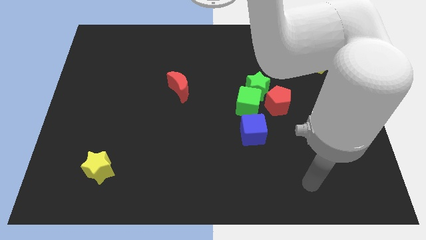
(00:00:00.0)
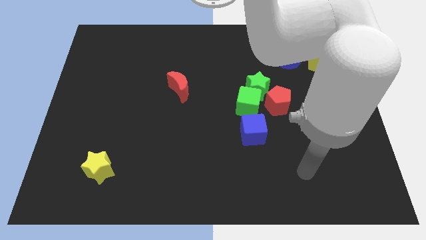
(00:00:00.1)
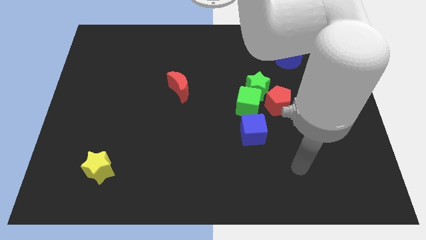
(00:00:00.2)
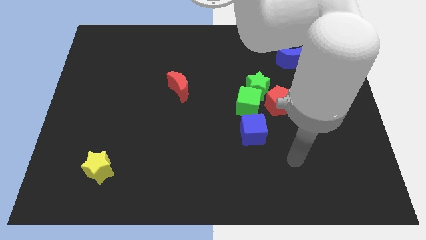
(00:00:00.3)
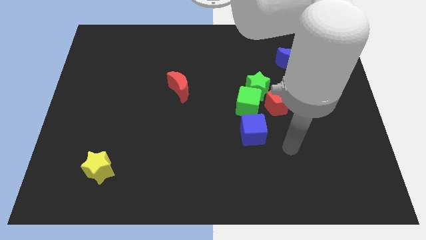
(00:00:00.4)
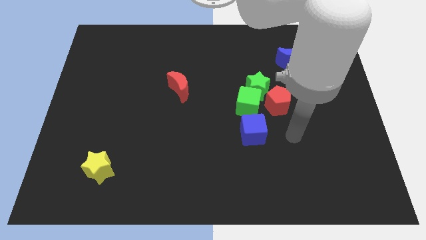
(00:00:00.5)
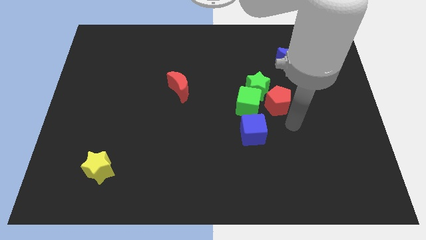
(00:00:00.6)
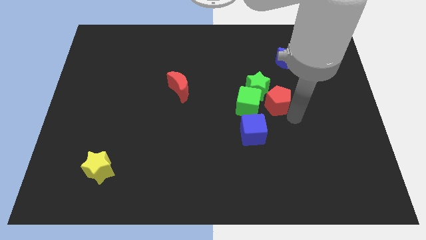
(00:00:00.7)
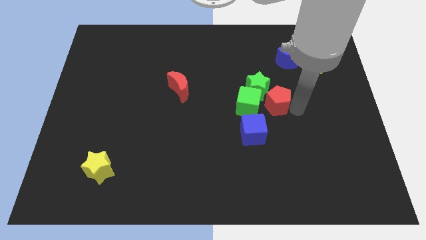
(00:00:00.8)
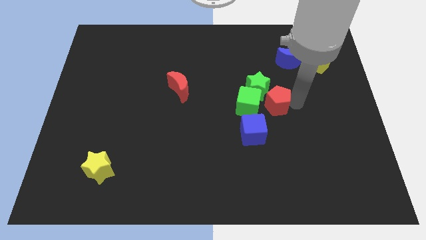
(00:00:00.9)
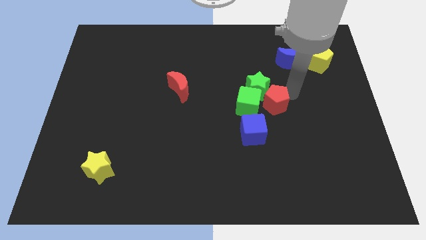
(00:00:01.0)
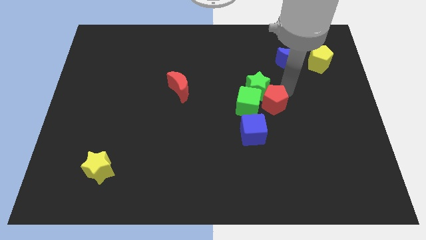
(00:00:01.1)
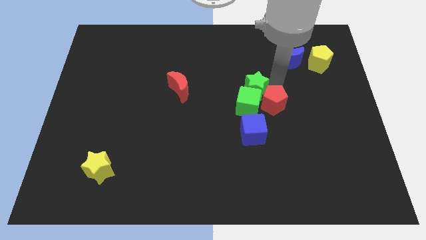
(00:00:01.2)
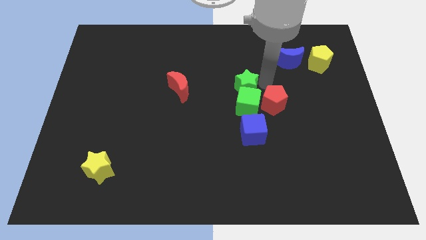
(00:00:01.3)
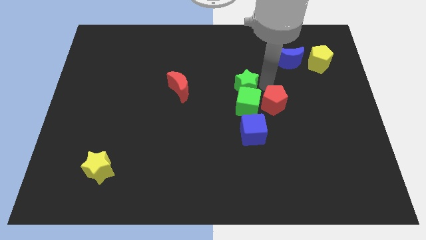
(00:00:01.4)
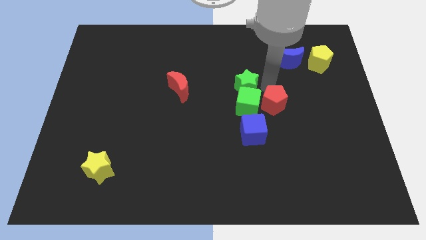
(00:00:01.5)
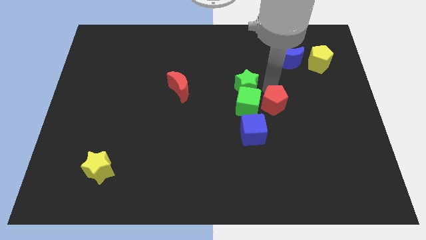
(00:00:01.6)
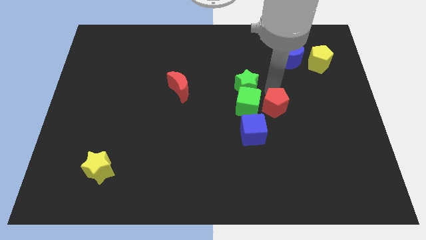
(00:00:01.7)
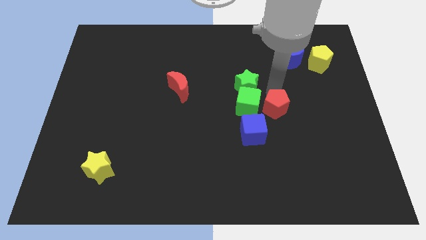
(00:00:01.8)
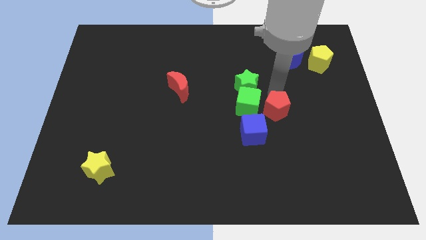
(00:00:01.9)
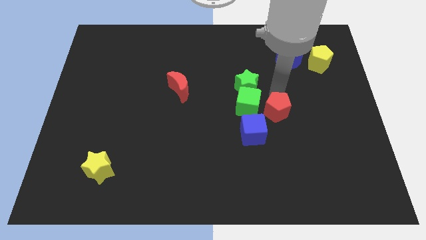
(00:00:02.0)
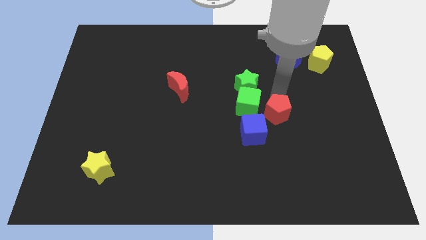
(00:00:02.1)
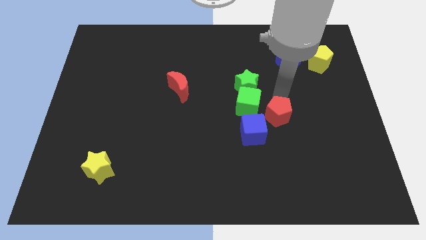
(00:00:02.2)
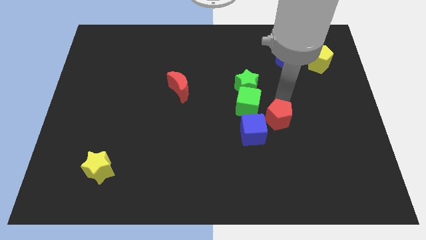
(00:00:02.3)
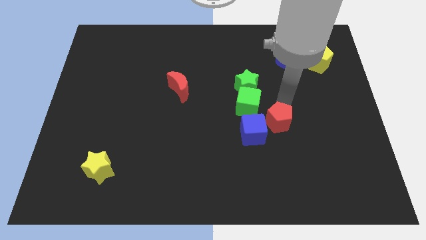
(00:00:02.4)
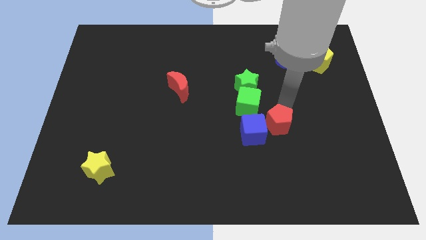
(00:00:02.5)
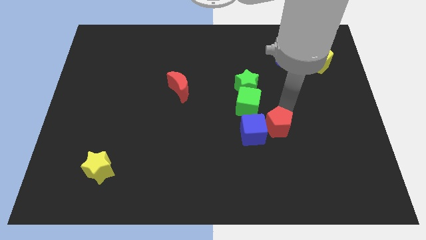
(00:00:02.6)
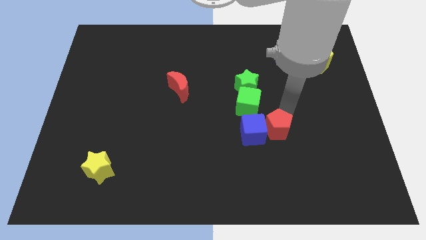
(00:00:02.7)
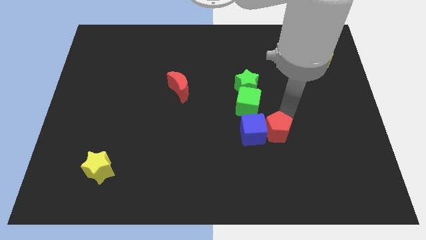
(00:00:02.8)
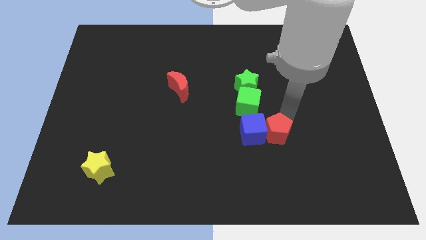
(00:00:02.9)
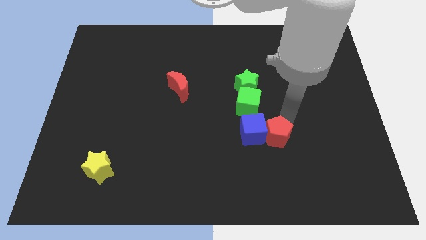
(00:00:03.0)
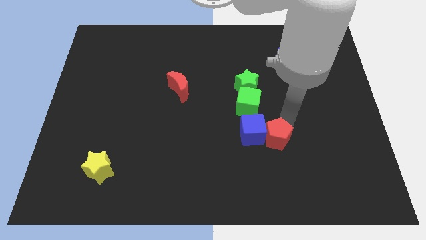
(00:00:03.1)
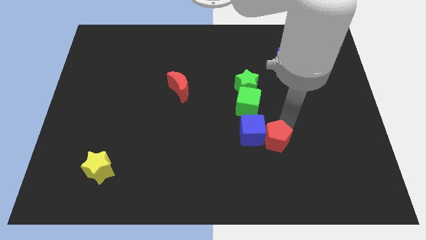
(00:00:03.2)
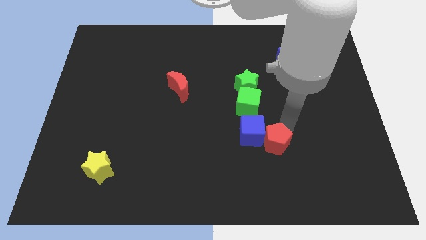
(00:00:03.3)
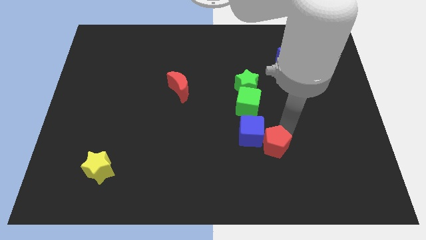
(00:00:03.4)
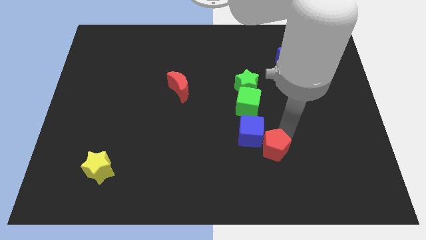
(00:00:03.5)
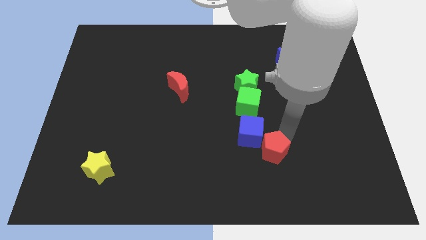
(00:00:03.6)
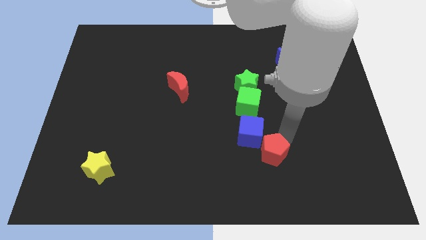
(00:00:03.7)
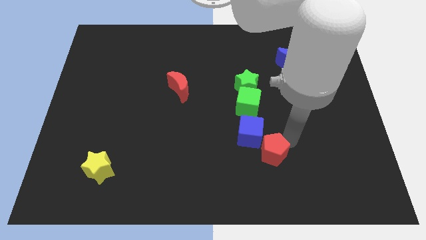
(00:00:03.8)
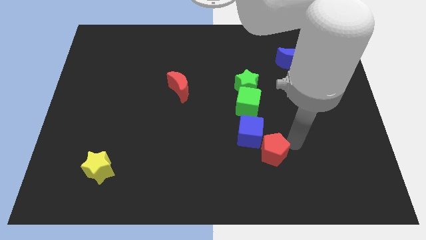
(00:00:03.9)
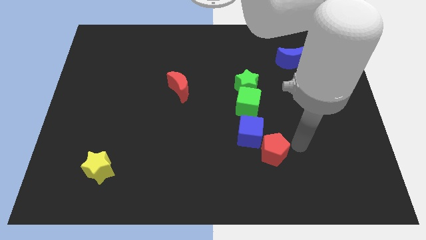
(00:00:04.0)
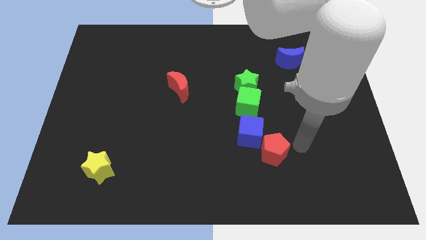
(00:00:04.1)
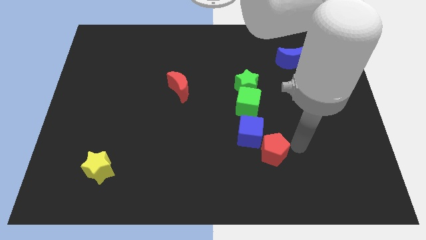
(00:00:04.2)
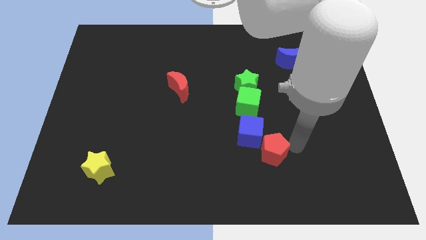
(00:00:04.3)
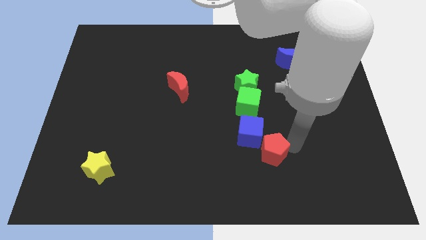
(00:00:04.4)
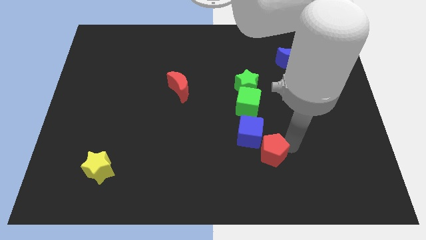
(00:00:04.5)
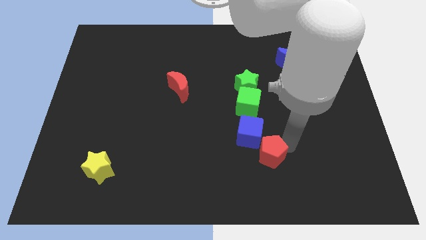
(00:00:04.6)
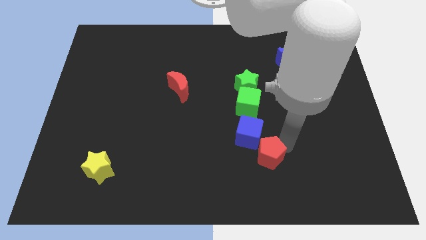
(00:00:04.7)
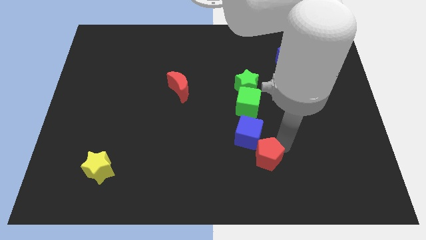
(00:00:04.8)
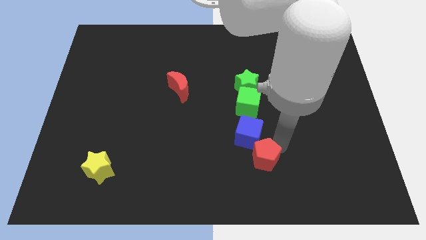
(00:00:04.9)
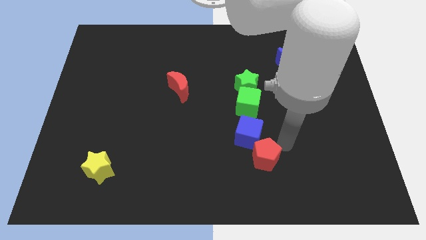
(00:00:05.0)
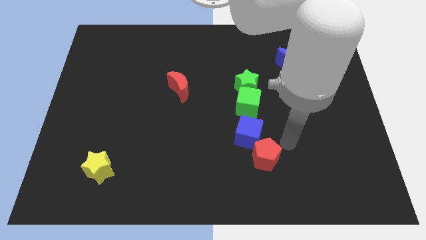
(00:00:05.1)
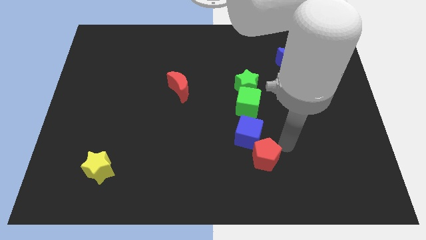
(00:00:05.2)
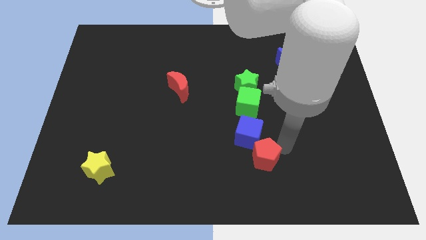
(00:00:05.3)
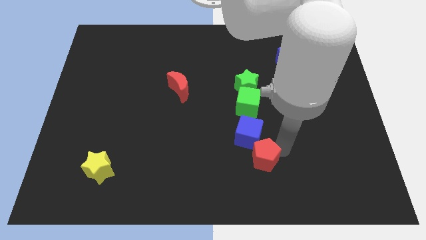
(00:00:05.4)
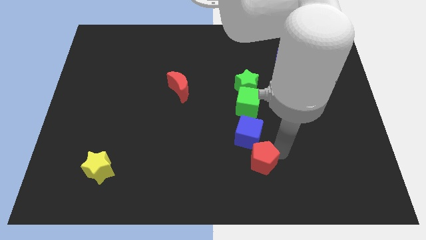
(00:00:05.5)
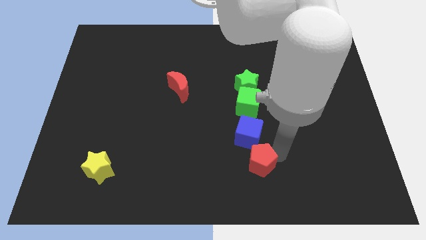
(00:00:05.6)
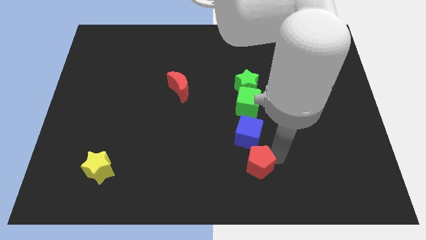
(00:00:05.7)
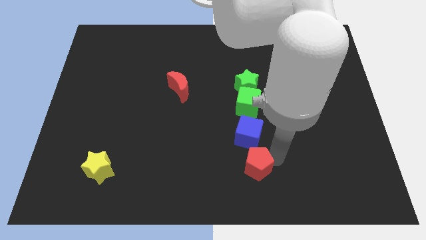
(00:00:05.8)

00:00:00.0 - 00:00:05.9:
put the red pentagon to the bottom

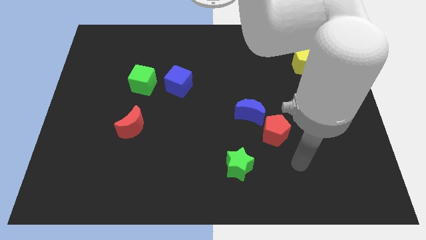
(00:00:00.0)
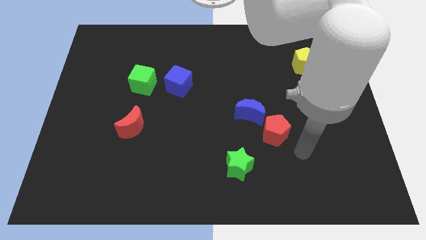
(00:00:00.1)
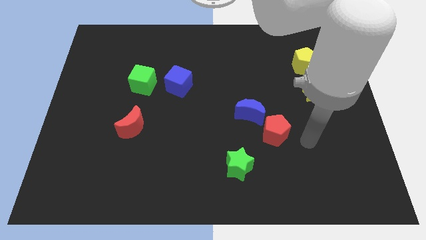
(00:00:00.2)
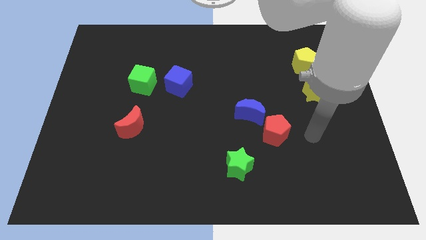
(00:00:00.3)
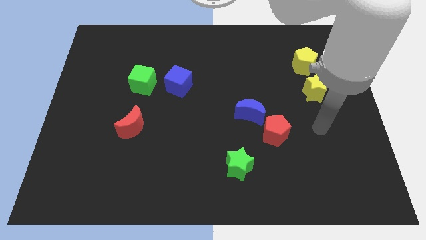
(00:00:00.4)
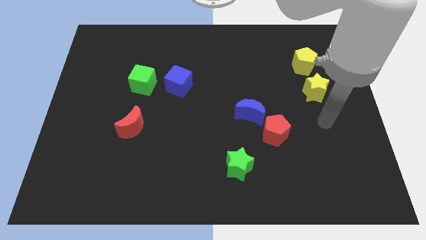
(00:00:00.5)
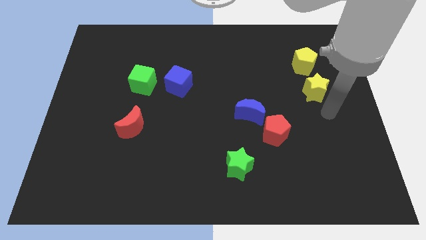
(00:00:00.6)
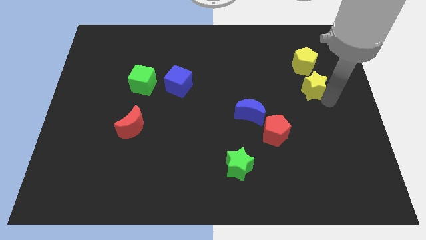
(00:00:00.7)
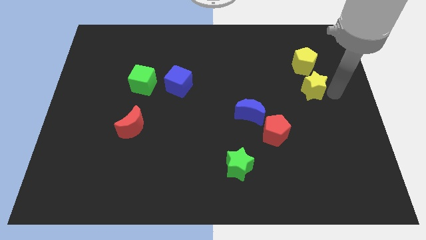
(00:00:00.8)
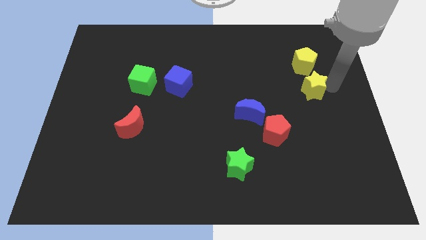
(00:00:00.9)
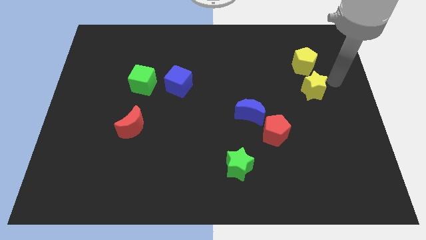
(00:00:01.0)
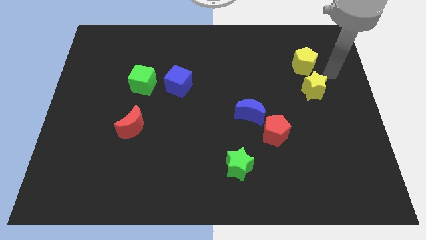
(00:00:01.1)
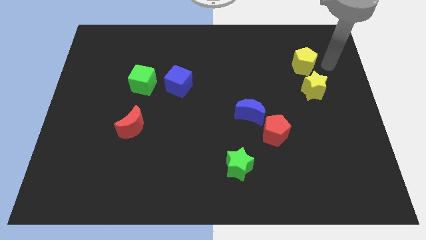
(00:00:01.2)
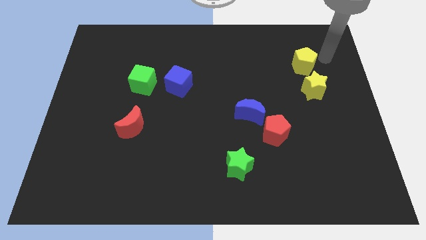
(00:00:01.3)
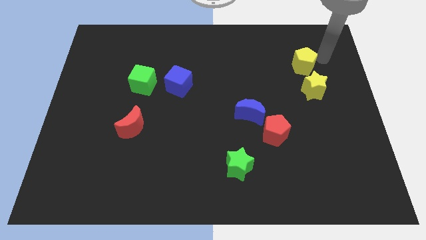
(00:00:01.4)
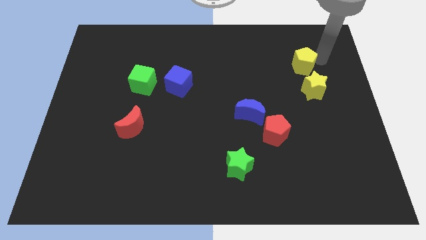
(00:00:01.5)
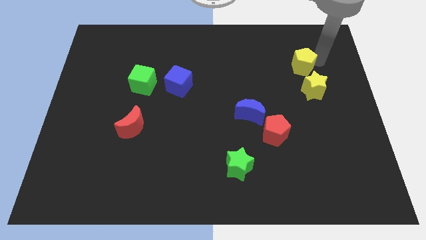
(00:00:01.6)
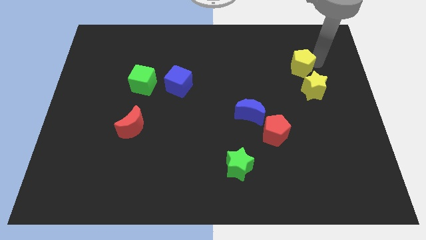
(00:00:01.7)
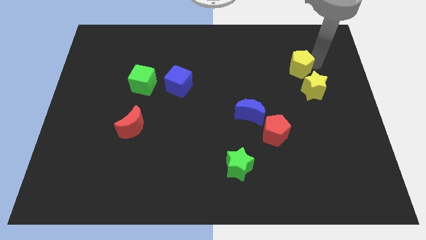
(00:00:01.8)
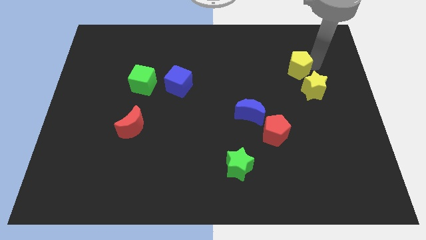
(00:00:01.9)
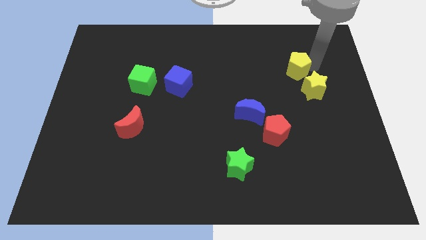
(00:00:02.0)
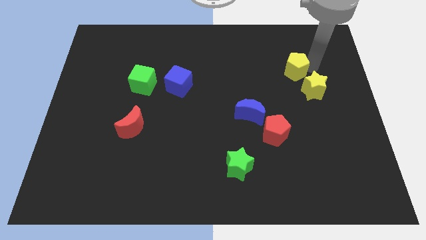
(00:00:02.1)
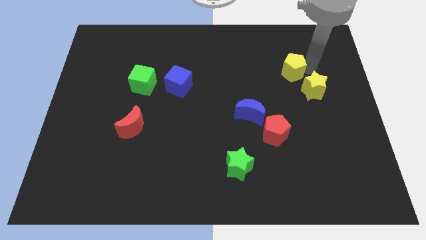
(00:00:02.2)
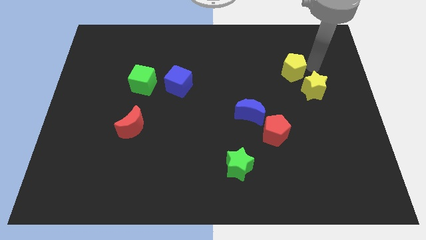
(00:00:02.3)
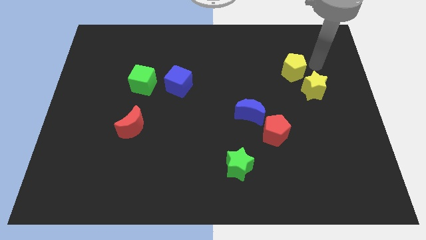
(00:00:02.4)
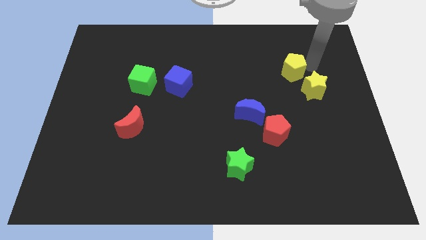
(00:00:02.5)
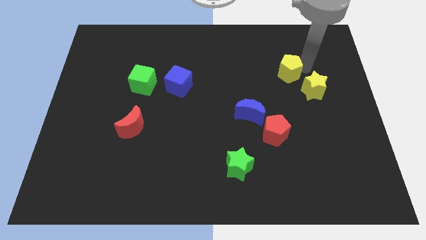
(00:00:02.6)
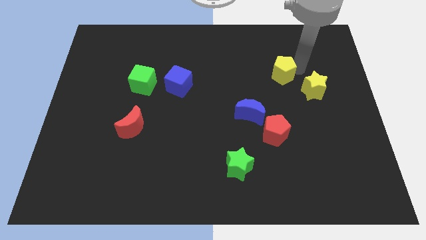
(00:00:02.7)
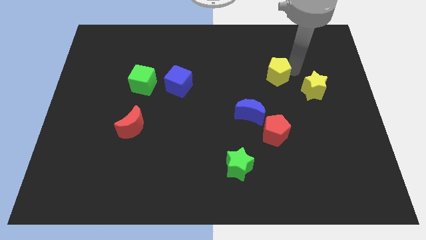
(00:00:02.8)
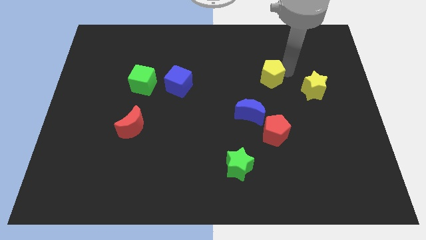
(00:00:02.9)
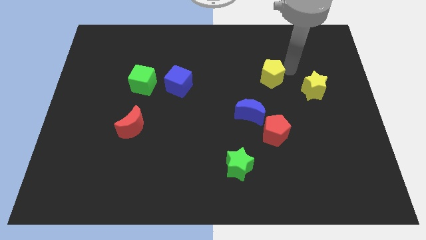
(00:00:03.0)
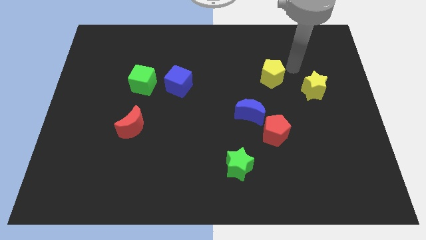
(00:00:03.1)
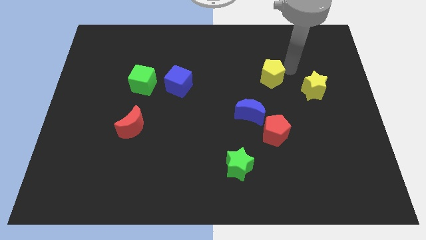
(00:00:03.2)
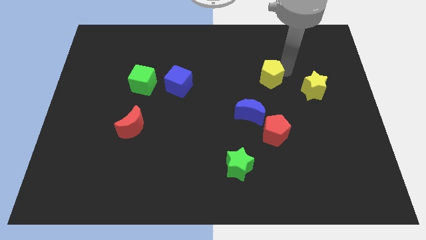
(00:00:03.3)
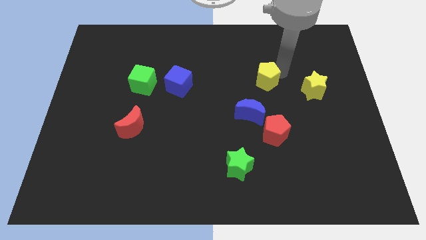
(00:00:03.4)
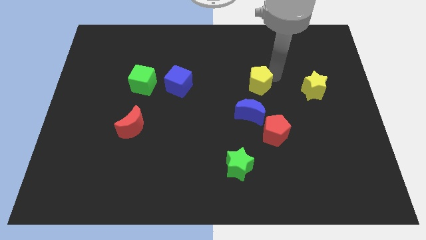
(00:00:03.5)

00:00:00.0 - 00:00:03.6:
push the yellow pentagon to the center of the board
